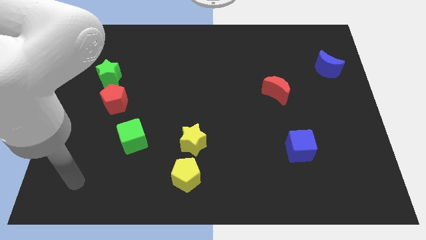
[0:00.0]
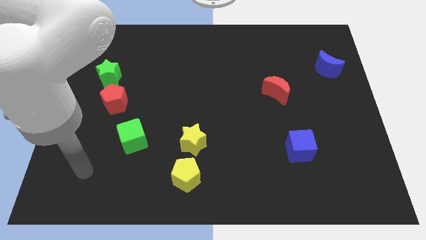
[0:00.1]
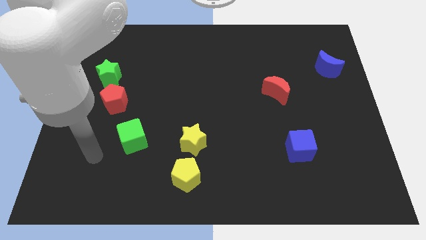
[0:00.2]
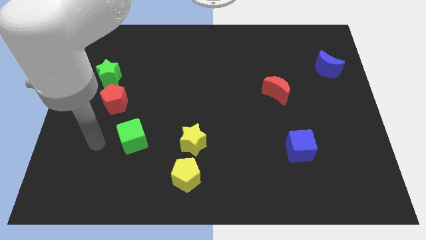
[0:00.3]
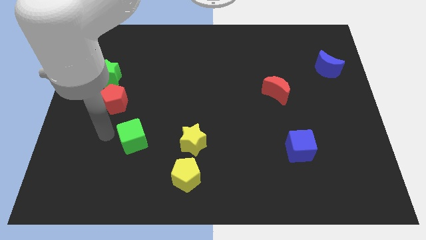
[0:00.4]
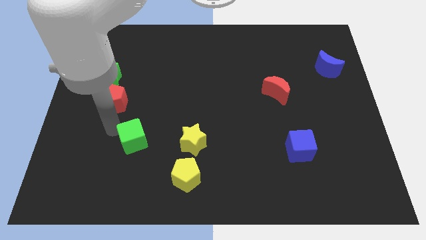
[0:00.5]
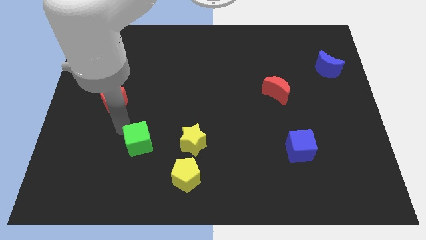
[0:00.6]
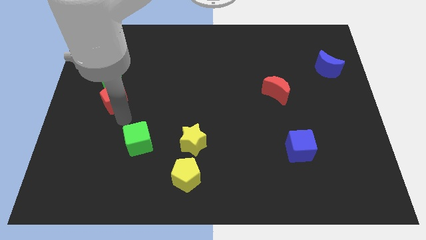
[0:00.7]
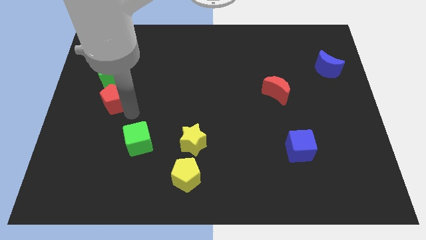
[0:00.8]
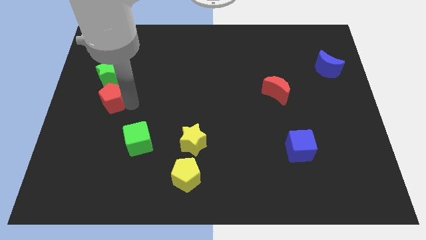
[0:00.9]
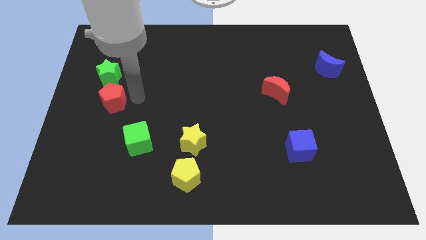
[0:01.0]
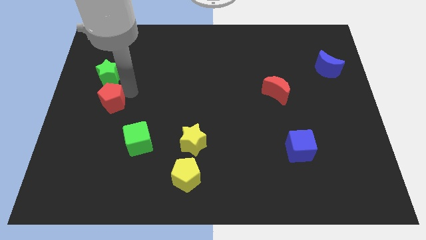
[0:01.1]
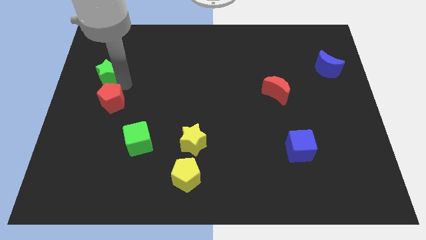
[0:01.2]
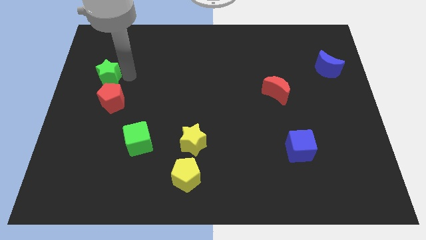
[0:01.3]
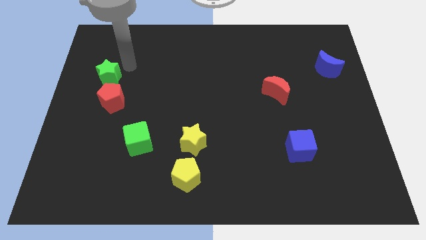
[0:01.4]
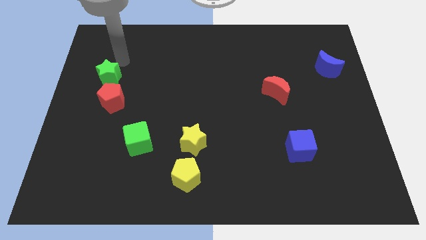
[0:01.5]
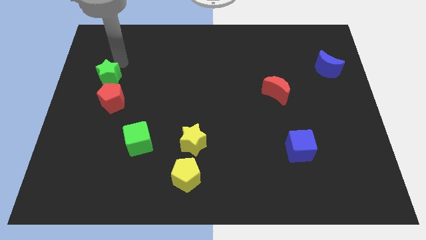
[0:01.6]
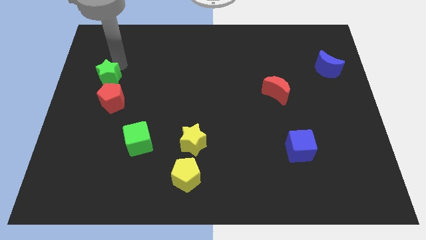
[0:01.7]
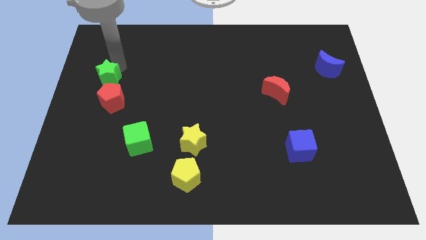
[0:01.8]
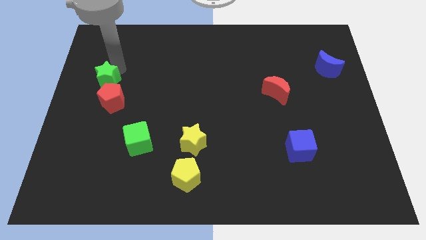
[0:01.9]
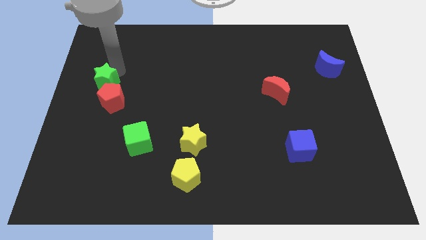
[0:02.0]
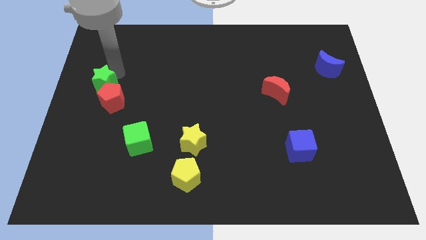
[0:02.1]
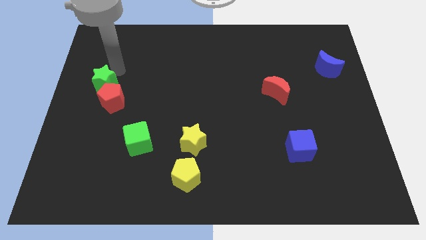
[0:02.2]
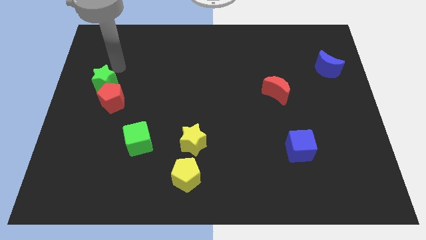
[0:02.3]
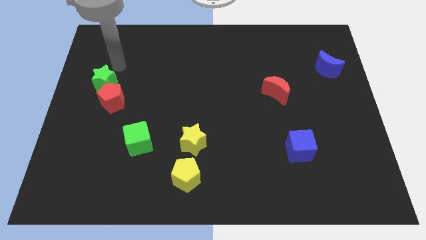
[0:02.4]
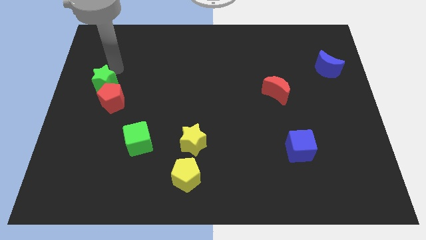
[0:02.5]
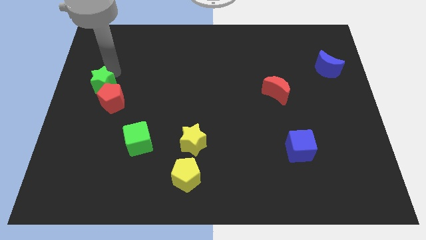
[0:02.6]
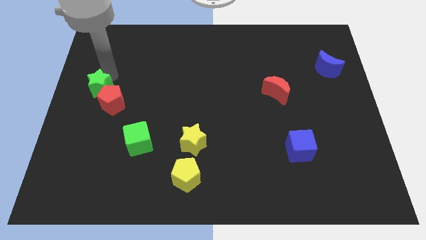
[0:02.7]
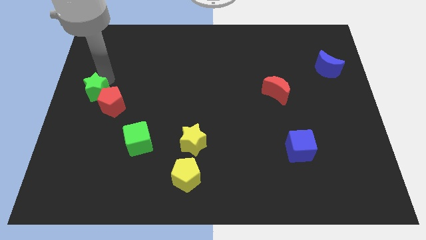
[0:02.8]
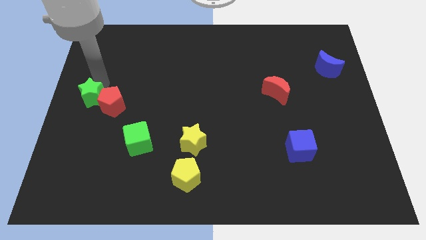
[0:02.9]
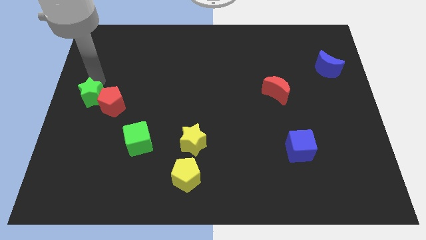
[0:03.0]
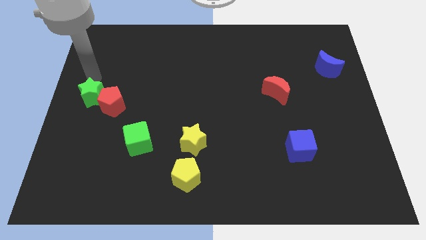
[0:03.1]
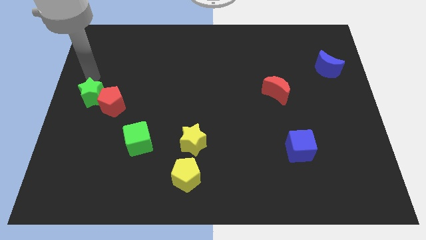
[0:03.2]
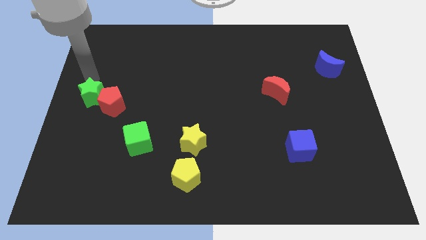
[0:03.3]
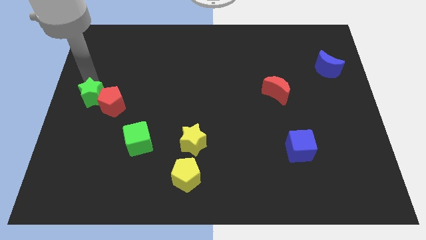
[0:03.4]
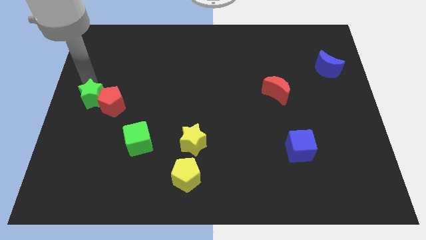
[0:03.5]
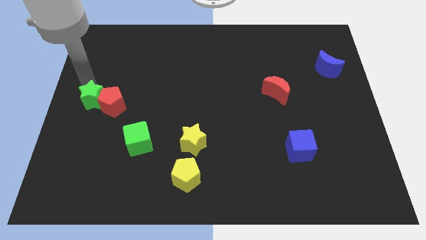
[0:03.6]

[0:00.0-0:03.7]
slide the green star a little bit down

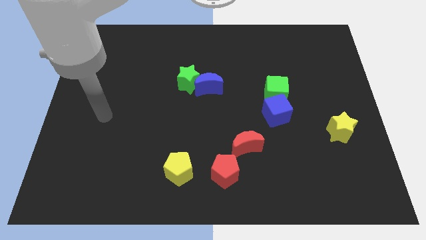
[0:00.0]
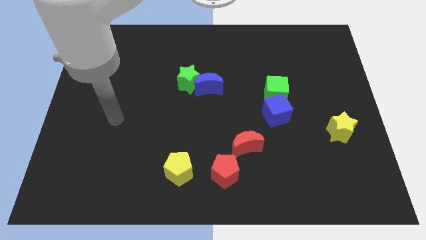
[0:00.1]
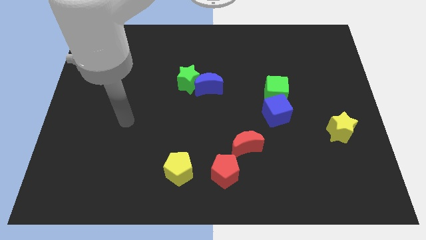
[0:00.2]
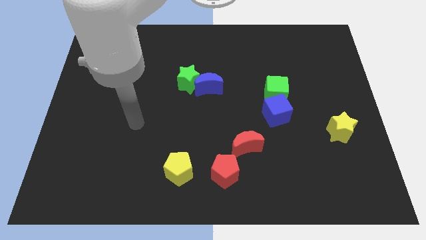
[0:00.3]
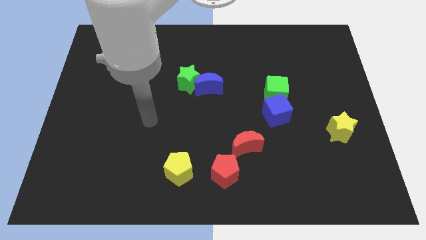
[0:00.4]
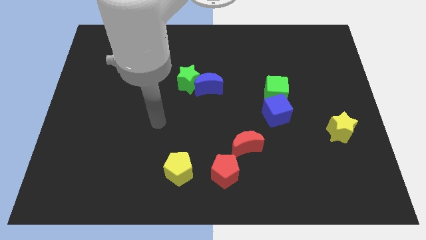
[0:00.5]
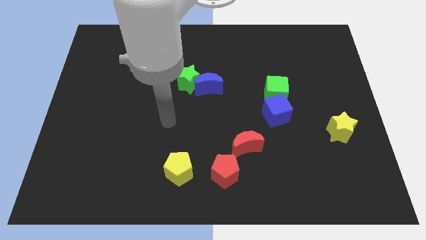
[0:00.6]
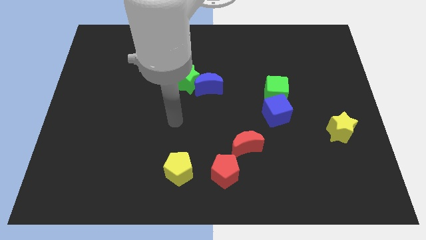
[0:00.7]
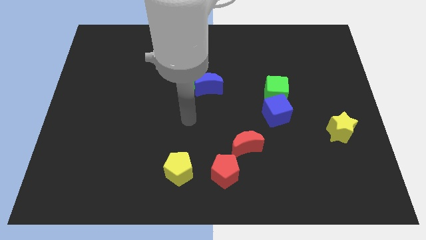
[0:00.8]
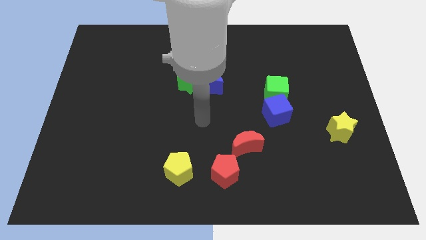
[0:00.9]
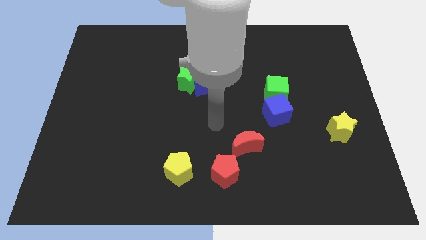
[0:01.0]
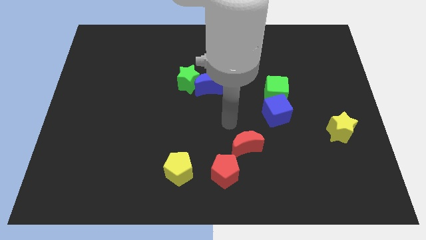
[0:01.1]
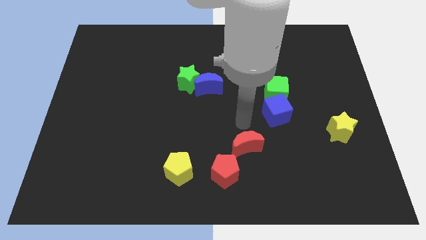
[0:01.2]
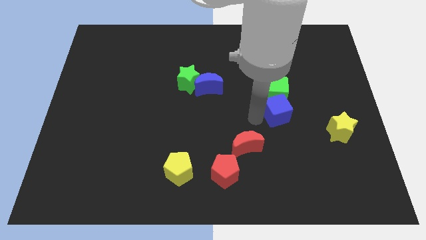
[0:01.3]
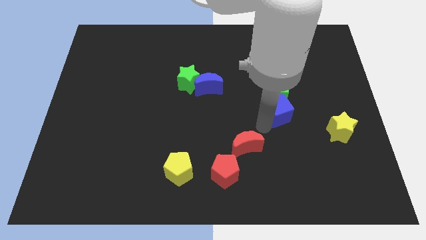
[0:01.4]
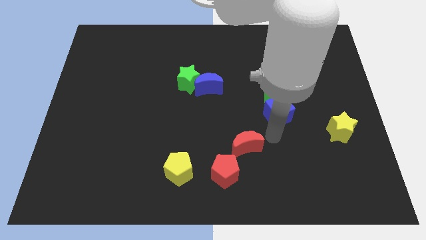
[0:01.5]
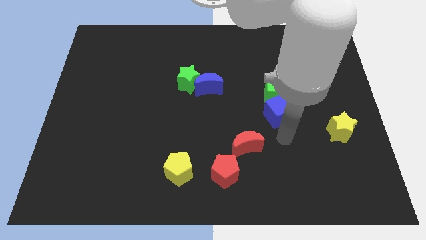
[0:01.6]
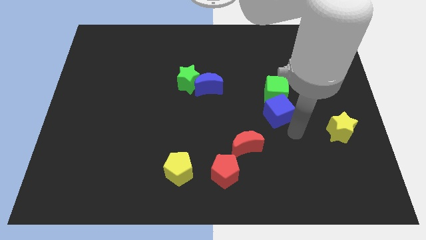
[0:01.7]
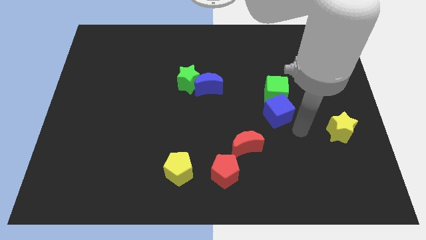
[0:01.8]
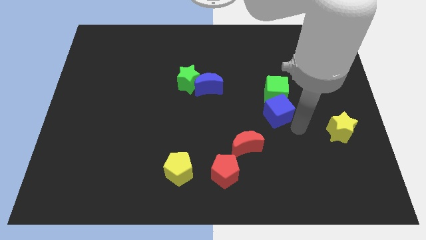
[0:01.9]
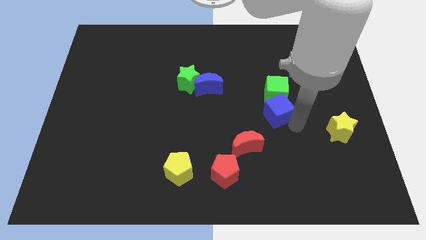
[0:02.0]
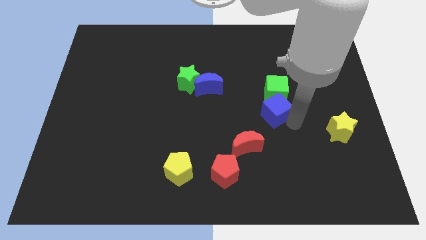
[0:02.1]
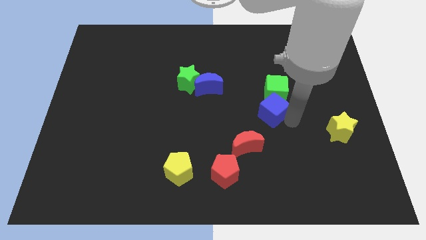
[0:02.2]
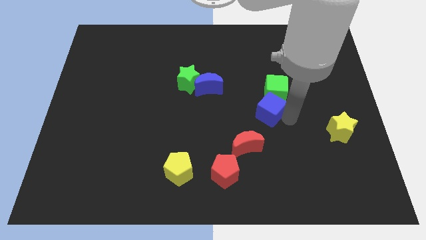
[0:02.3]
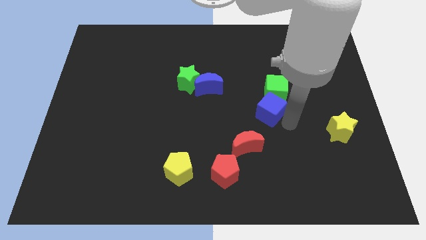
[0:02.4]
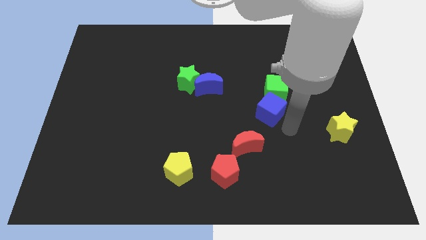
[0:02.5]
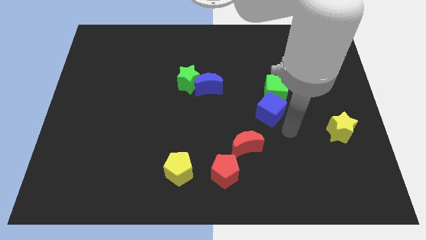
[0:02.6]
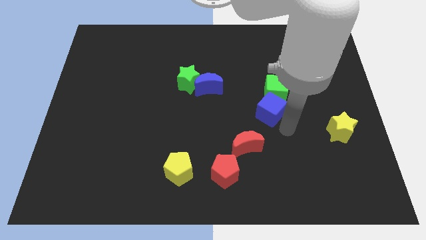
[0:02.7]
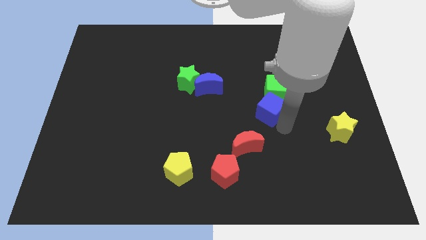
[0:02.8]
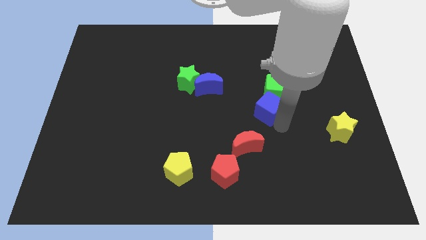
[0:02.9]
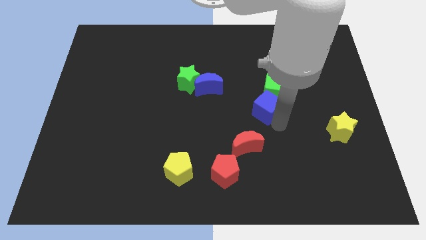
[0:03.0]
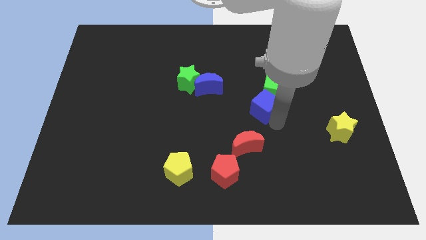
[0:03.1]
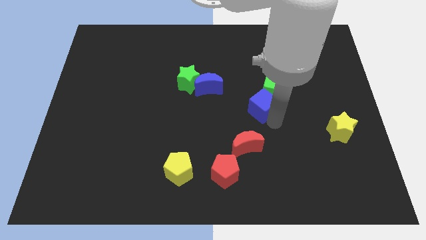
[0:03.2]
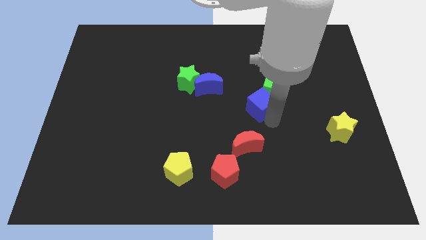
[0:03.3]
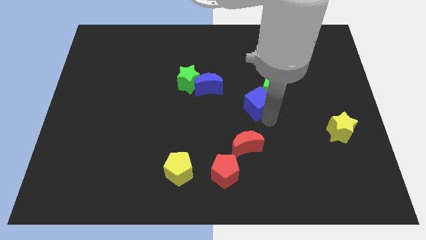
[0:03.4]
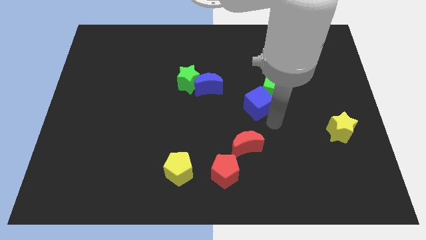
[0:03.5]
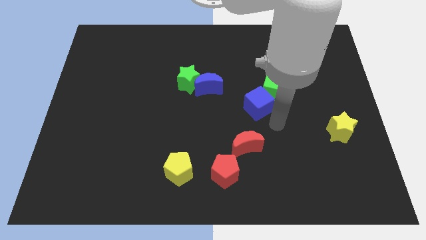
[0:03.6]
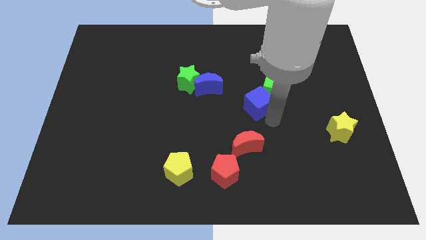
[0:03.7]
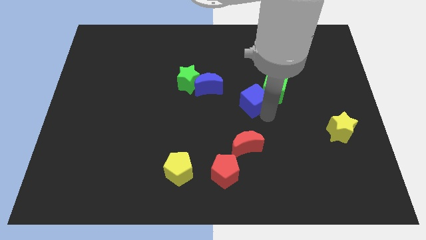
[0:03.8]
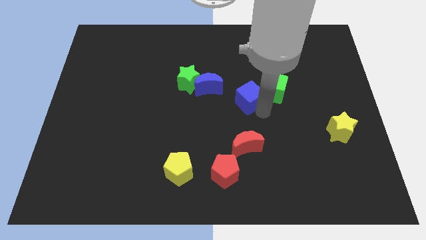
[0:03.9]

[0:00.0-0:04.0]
slightly move the blue cube upwards and left diagonally
